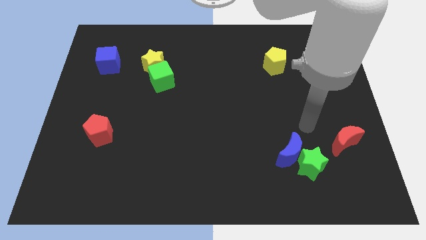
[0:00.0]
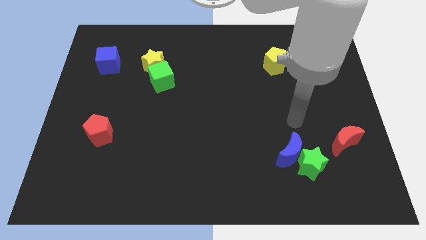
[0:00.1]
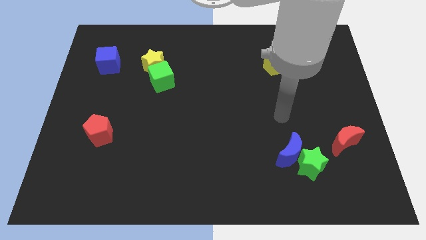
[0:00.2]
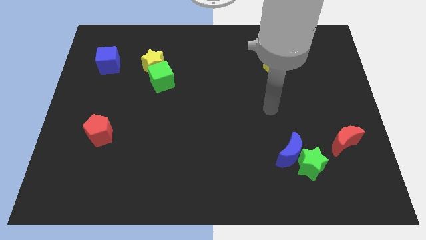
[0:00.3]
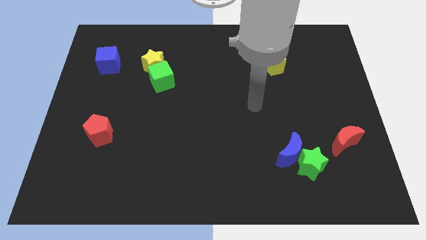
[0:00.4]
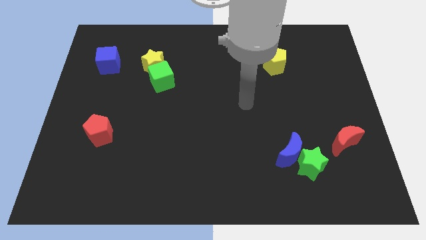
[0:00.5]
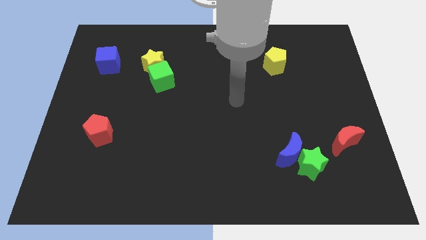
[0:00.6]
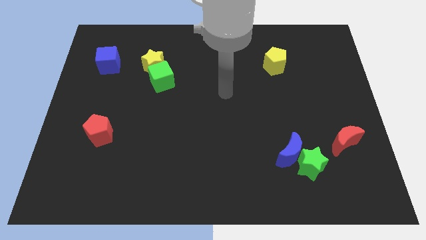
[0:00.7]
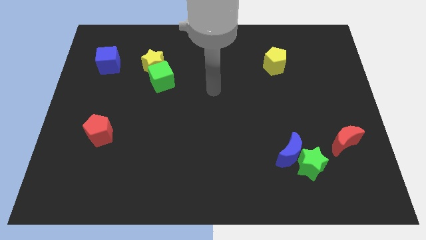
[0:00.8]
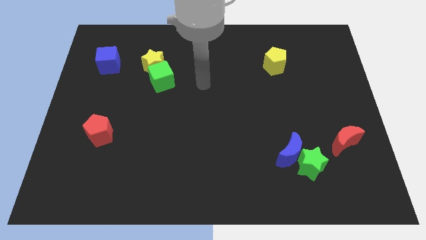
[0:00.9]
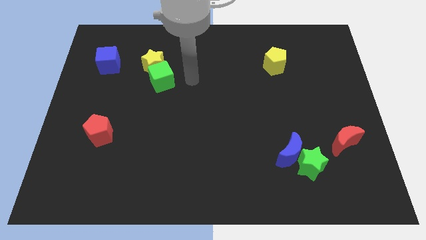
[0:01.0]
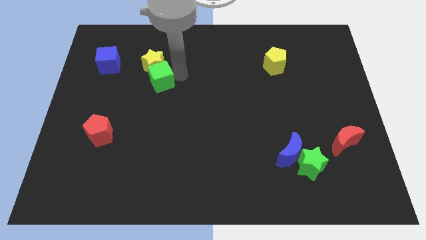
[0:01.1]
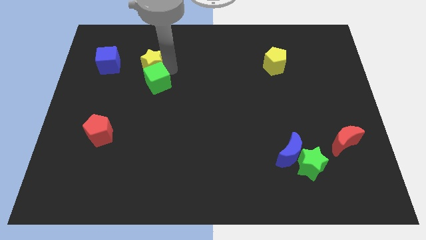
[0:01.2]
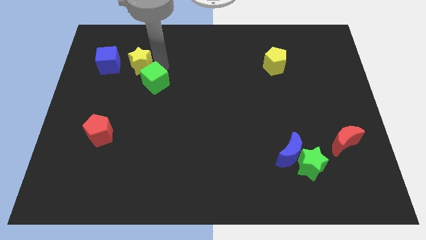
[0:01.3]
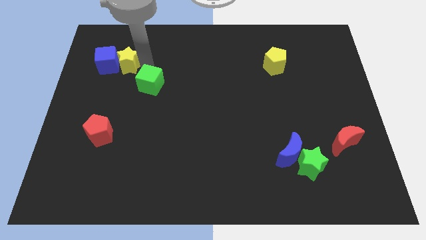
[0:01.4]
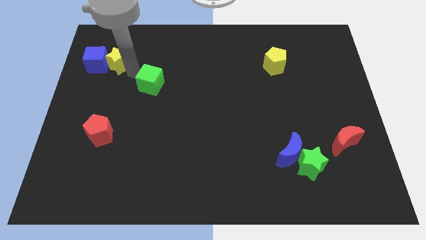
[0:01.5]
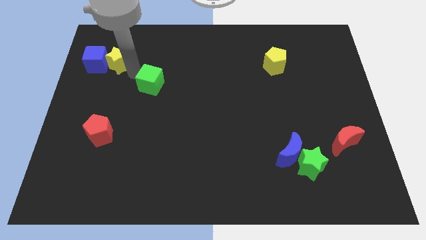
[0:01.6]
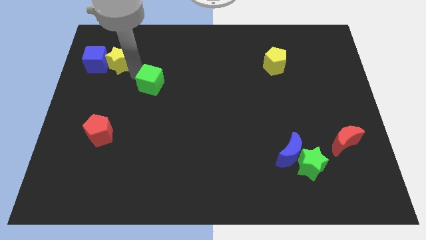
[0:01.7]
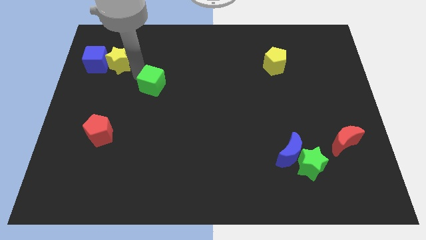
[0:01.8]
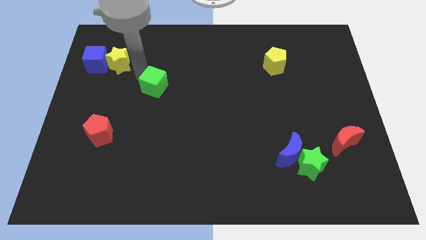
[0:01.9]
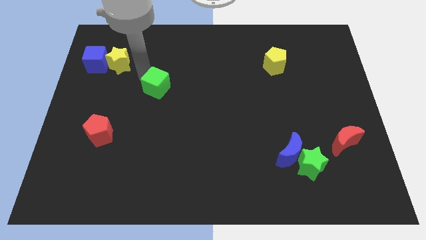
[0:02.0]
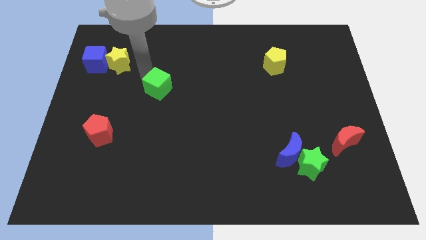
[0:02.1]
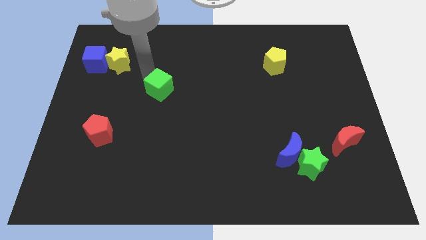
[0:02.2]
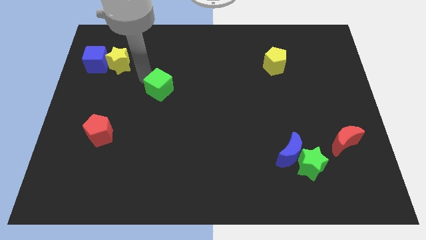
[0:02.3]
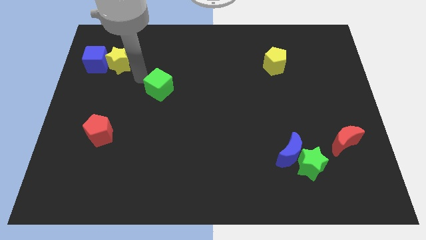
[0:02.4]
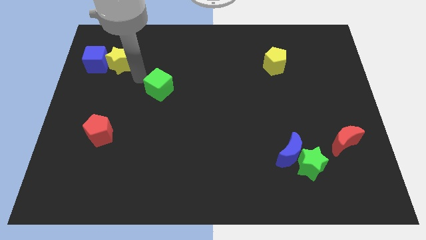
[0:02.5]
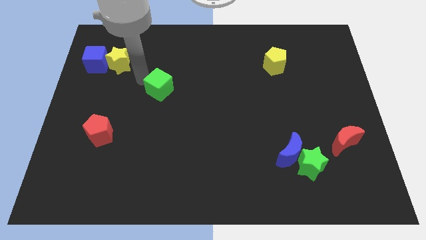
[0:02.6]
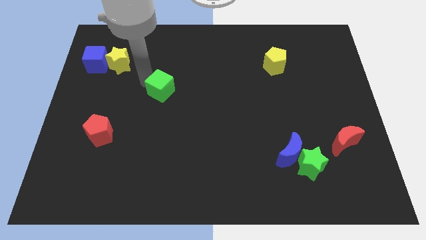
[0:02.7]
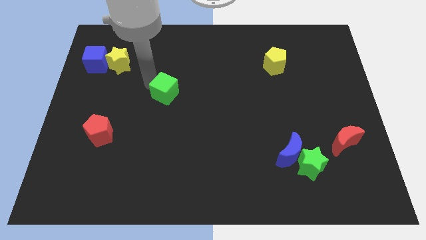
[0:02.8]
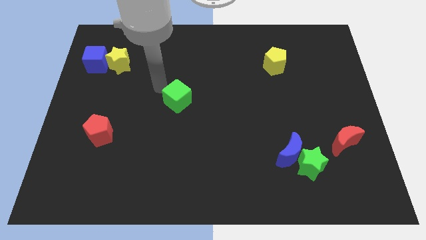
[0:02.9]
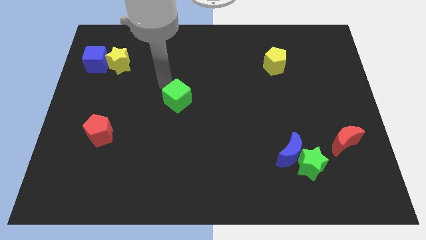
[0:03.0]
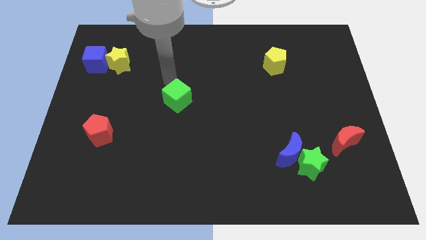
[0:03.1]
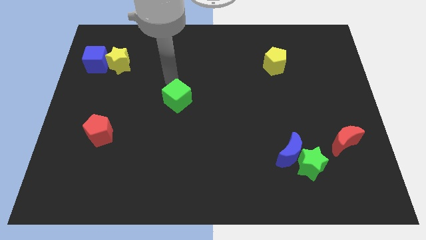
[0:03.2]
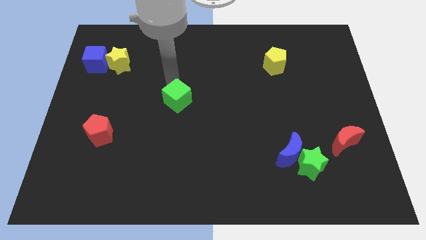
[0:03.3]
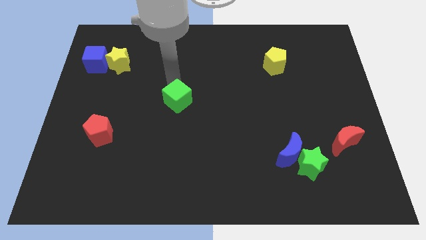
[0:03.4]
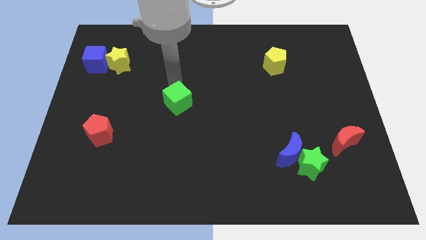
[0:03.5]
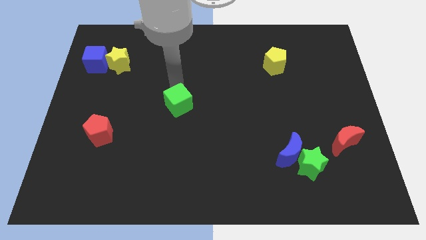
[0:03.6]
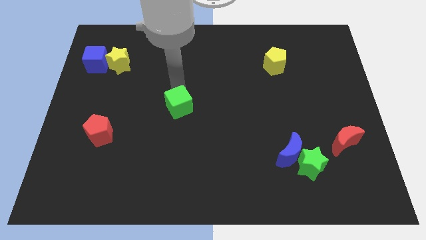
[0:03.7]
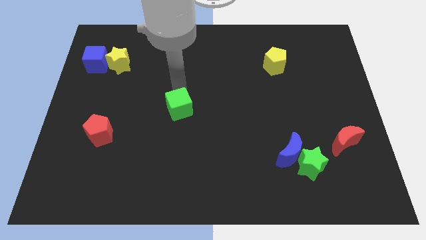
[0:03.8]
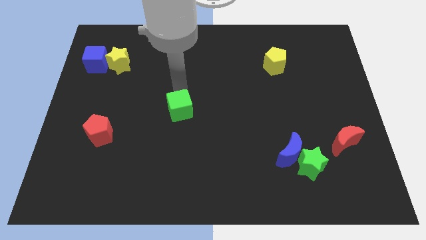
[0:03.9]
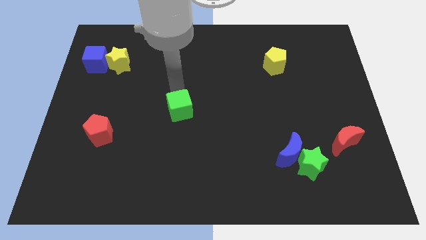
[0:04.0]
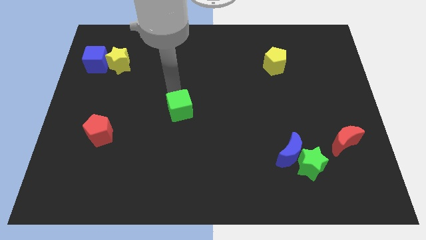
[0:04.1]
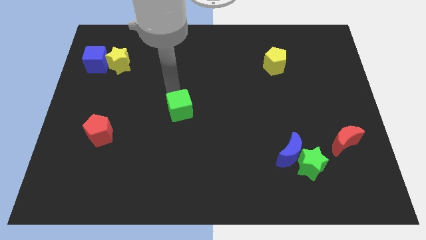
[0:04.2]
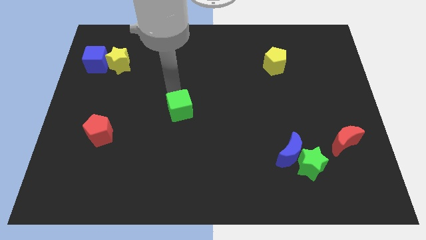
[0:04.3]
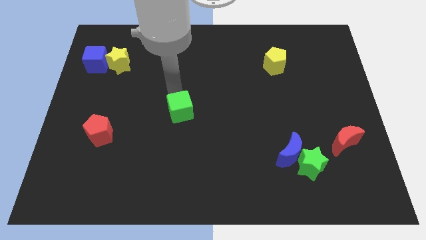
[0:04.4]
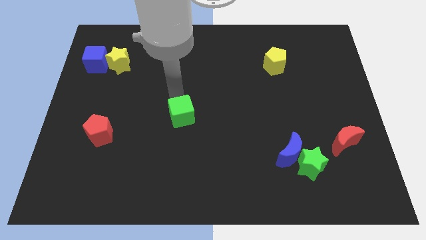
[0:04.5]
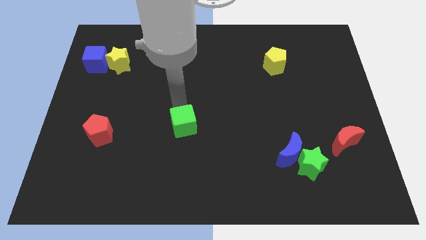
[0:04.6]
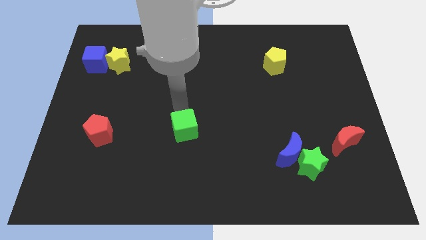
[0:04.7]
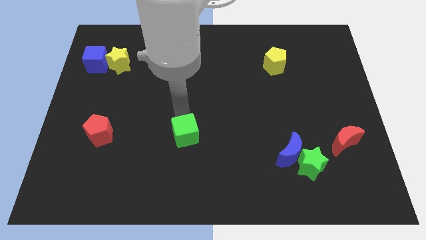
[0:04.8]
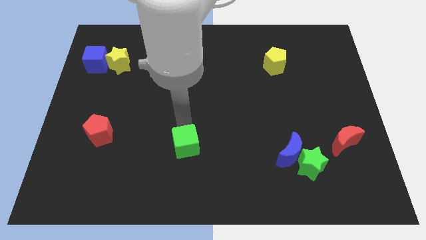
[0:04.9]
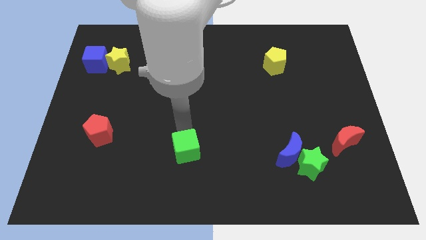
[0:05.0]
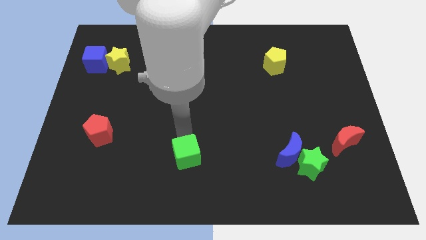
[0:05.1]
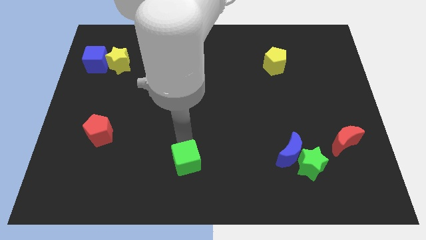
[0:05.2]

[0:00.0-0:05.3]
put the green cube to the bottom
